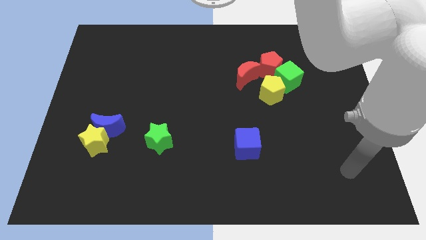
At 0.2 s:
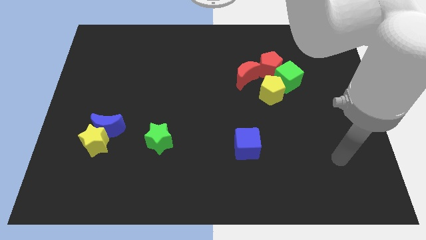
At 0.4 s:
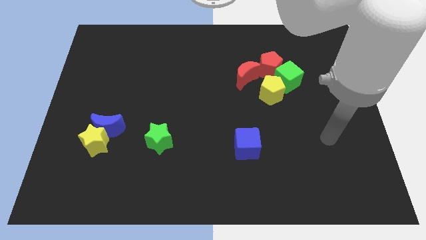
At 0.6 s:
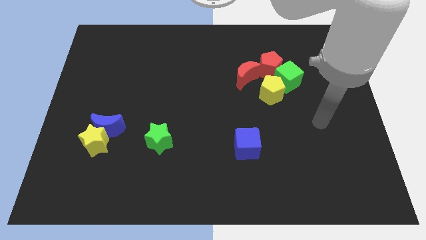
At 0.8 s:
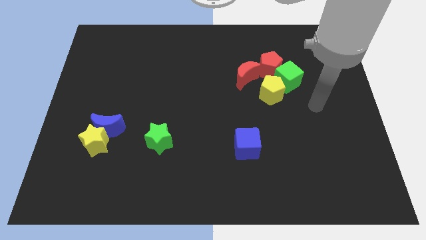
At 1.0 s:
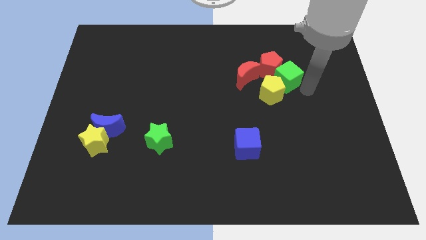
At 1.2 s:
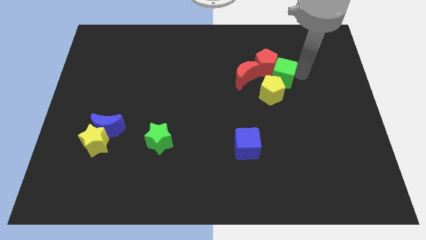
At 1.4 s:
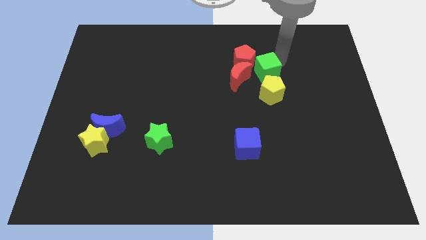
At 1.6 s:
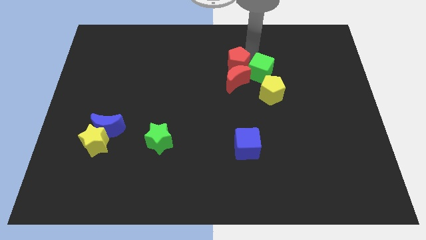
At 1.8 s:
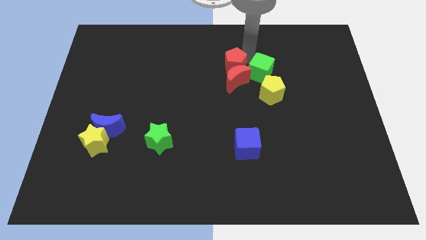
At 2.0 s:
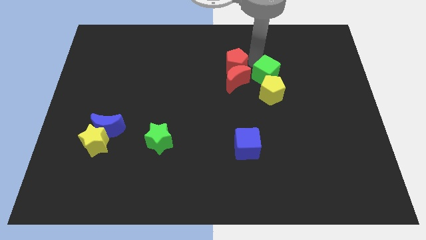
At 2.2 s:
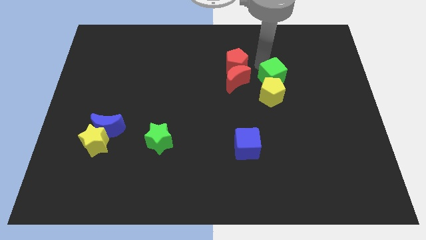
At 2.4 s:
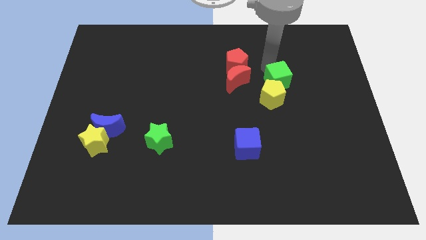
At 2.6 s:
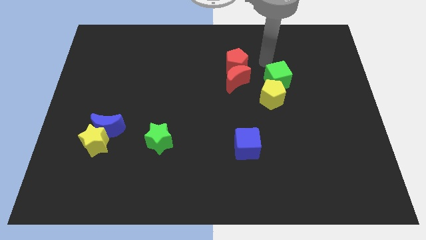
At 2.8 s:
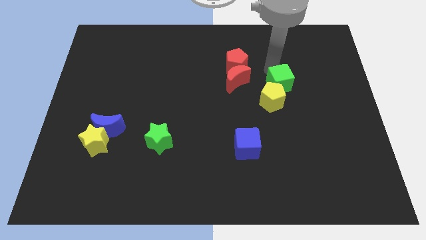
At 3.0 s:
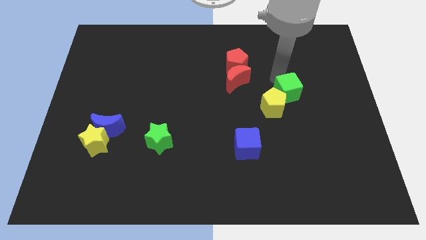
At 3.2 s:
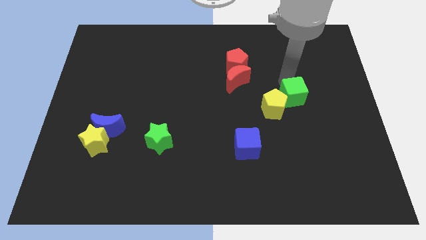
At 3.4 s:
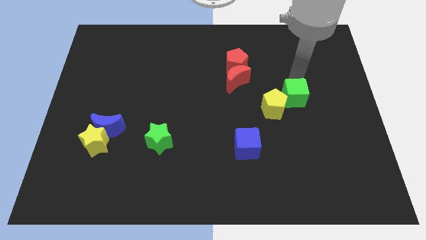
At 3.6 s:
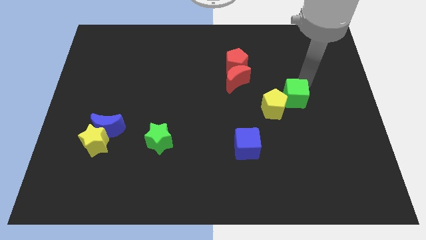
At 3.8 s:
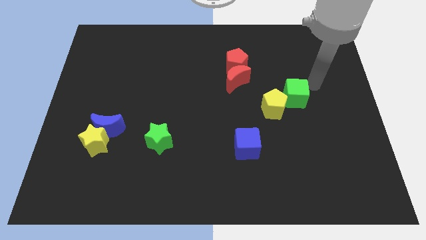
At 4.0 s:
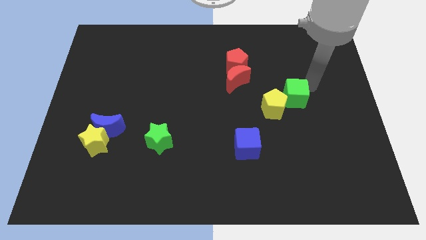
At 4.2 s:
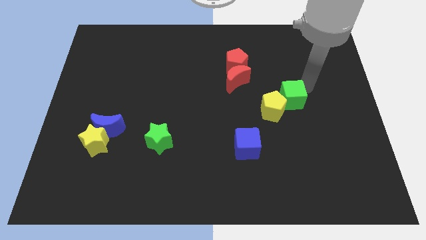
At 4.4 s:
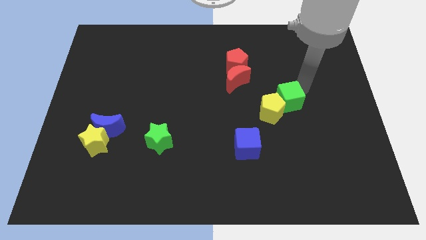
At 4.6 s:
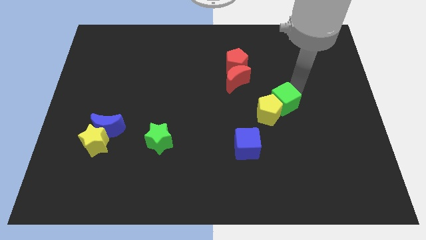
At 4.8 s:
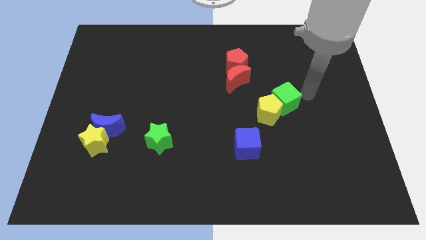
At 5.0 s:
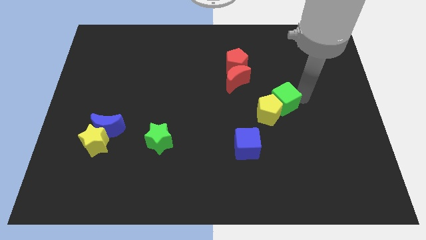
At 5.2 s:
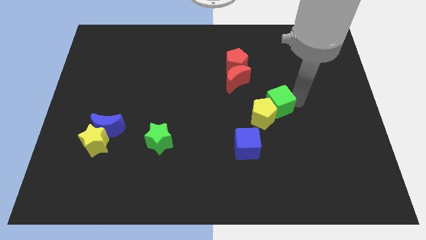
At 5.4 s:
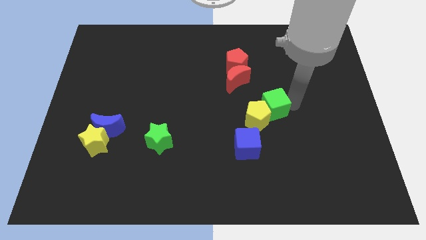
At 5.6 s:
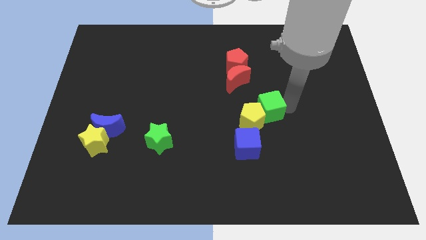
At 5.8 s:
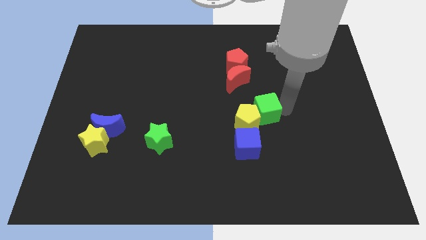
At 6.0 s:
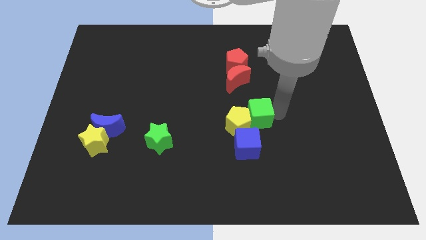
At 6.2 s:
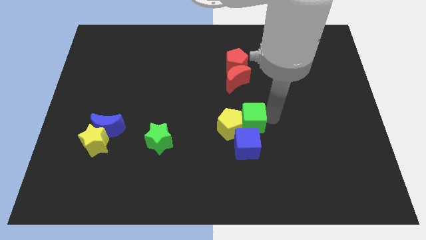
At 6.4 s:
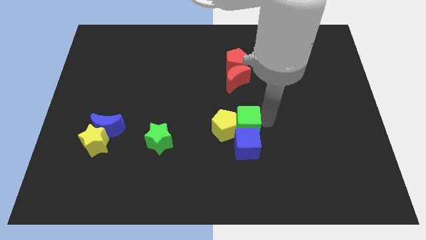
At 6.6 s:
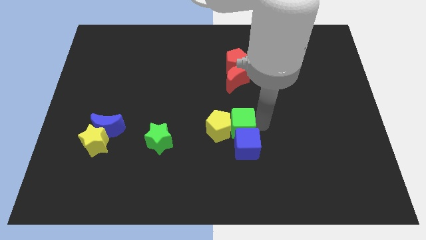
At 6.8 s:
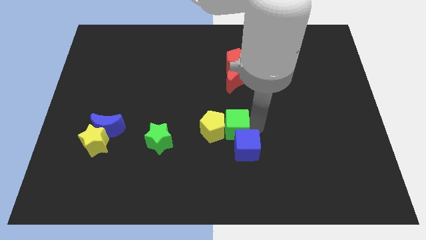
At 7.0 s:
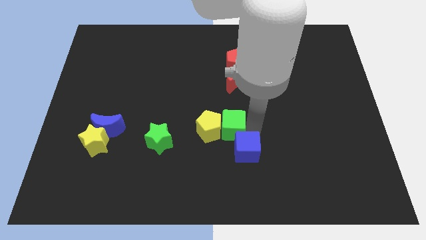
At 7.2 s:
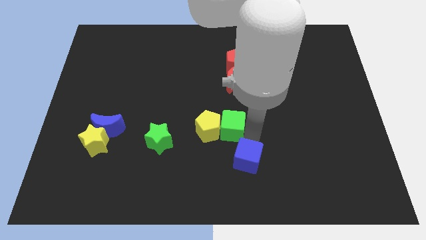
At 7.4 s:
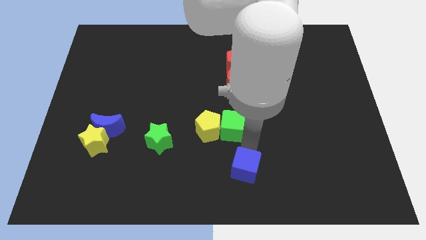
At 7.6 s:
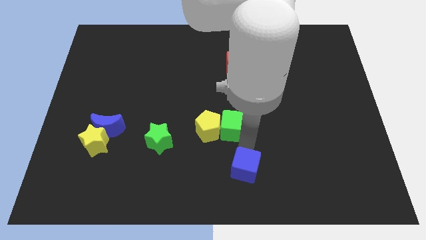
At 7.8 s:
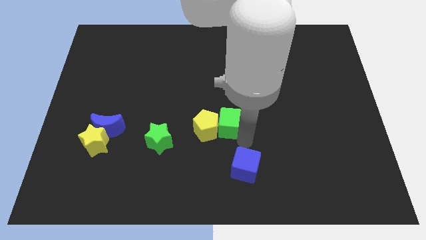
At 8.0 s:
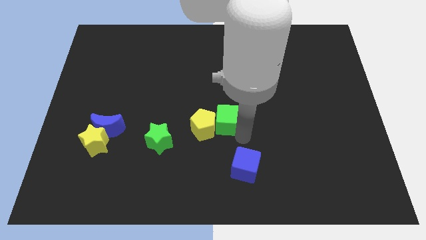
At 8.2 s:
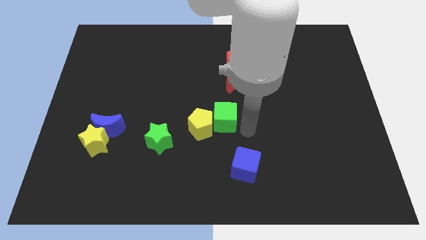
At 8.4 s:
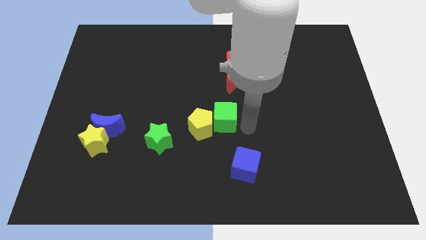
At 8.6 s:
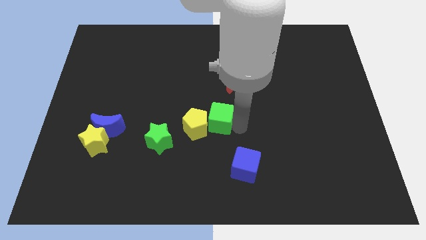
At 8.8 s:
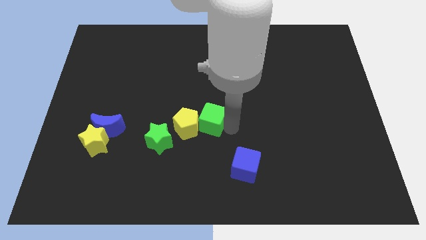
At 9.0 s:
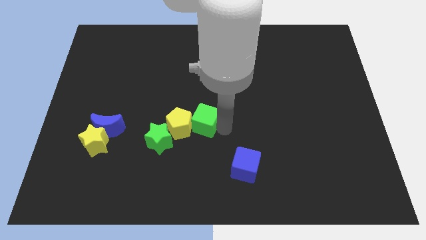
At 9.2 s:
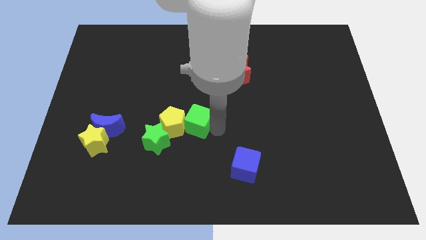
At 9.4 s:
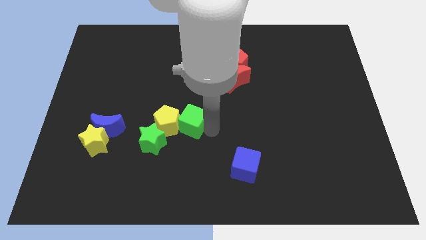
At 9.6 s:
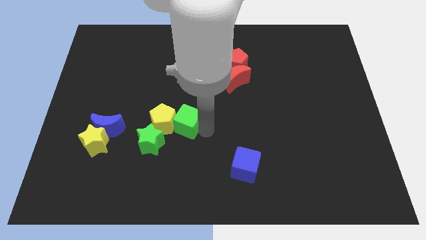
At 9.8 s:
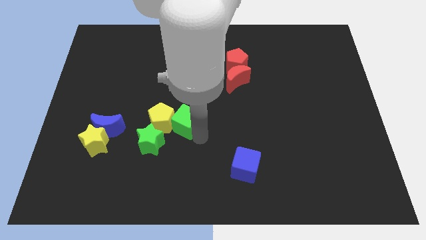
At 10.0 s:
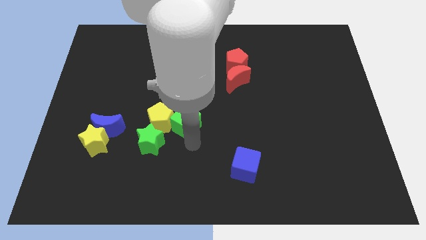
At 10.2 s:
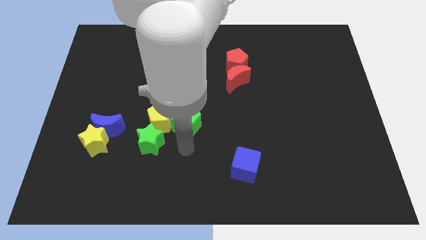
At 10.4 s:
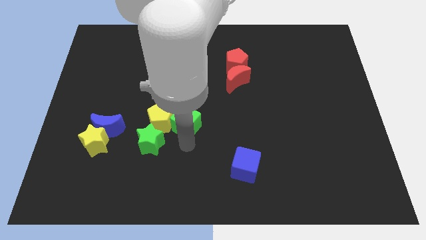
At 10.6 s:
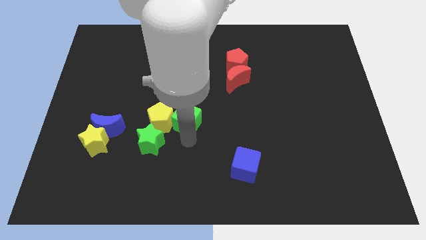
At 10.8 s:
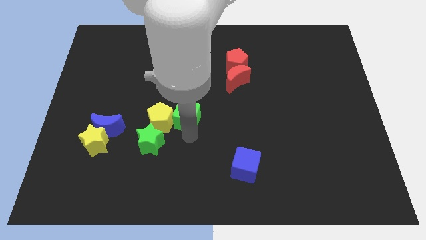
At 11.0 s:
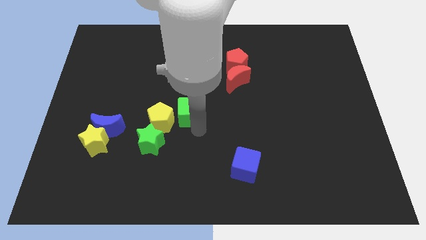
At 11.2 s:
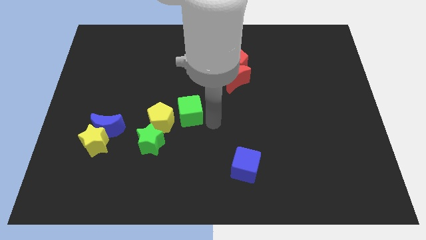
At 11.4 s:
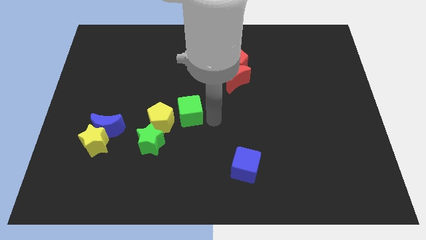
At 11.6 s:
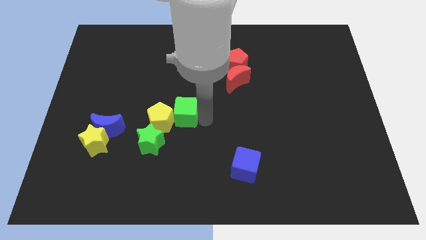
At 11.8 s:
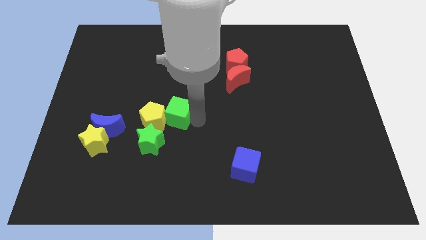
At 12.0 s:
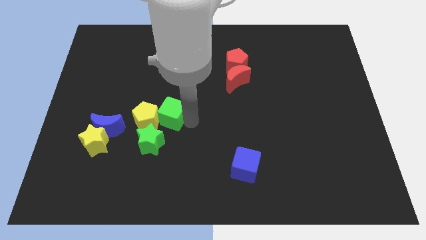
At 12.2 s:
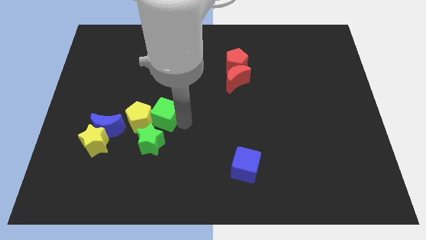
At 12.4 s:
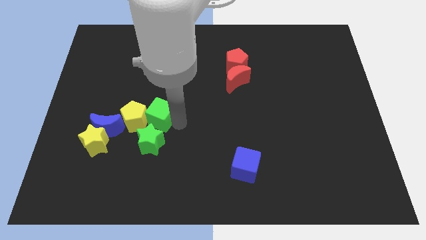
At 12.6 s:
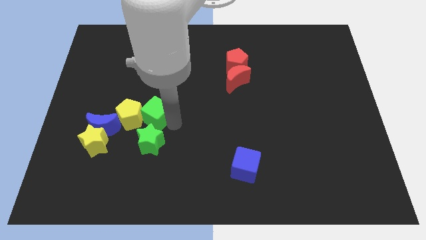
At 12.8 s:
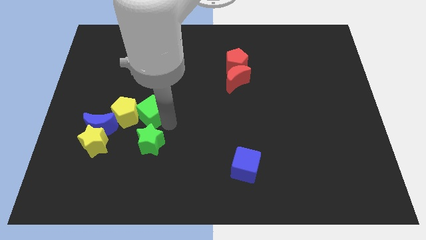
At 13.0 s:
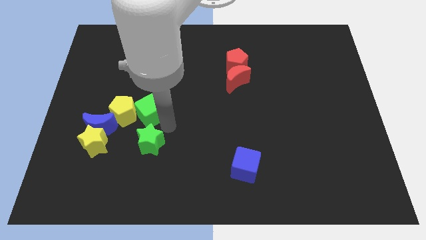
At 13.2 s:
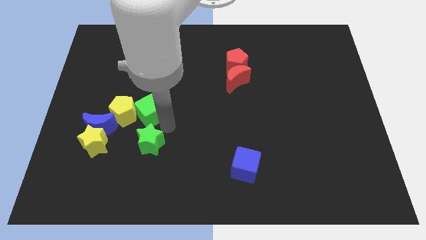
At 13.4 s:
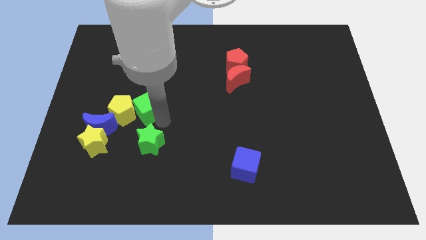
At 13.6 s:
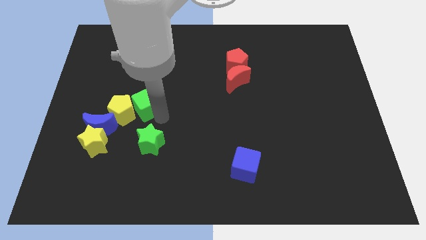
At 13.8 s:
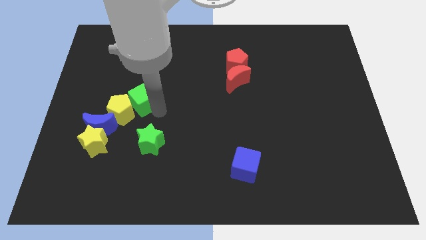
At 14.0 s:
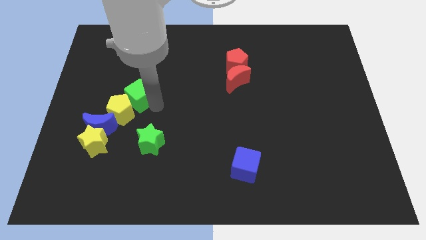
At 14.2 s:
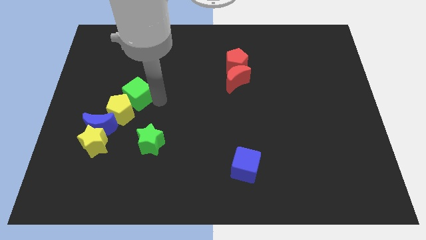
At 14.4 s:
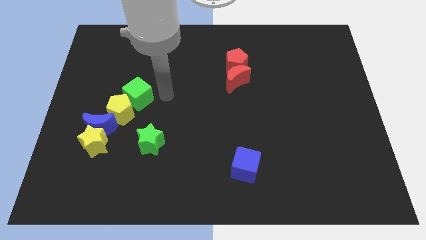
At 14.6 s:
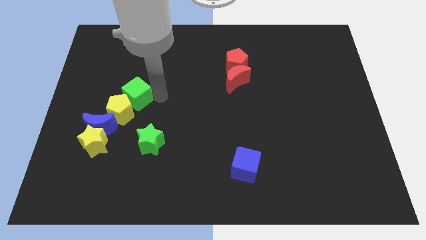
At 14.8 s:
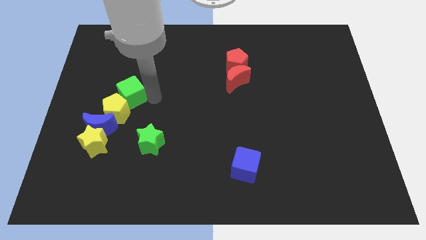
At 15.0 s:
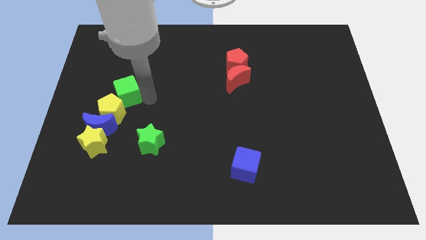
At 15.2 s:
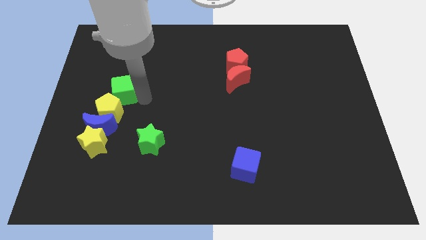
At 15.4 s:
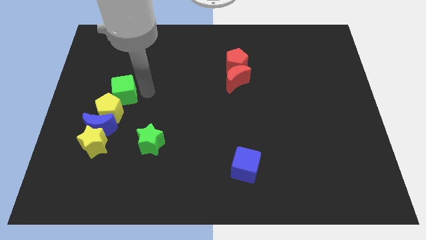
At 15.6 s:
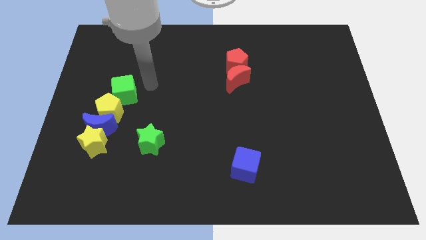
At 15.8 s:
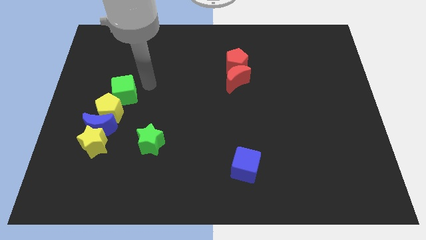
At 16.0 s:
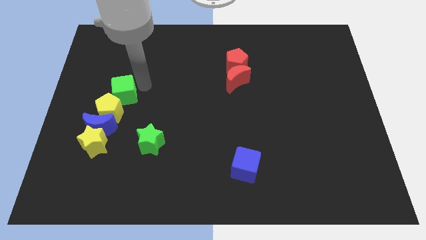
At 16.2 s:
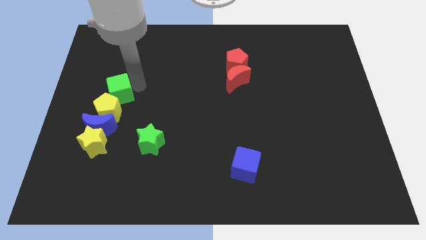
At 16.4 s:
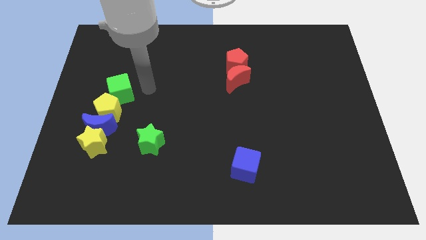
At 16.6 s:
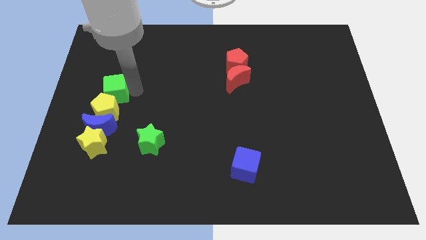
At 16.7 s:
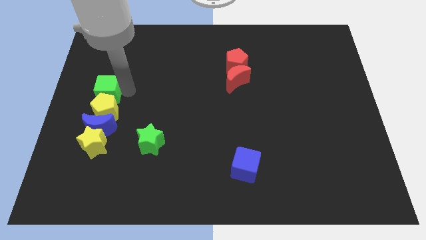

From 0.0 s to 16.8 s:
put the green cube to the left side
